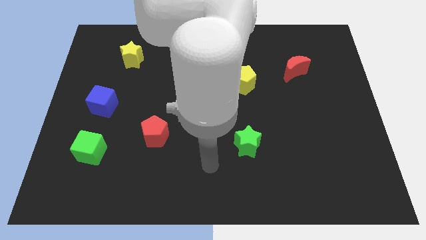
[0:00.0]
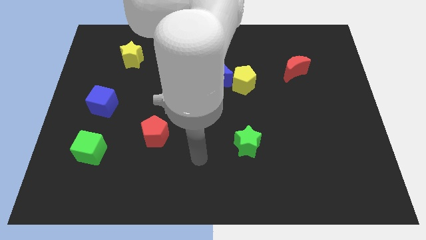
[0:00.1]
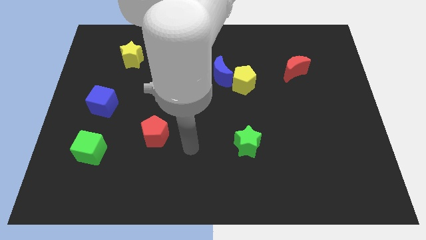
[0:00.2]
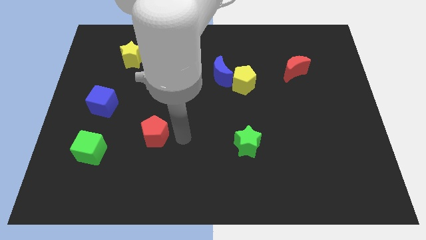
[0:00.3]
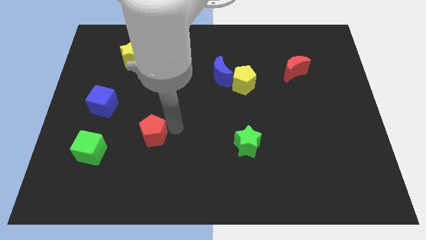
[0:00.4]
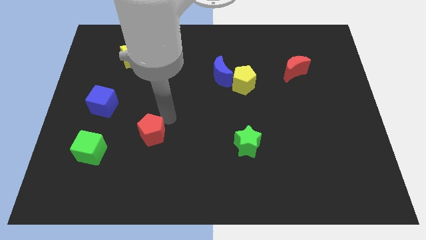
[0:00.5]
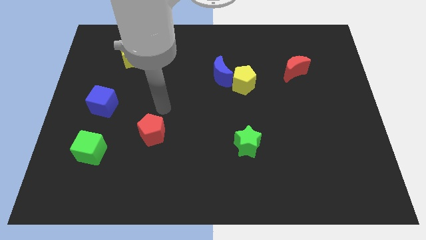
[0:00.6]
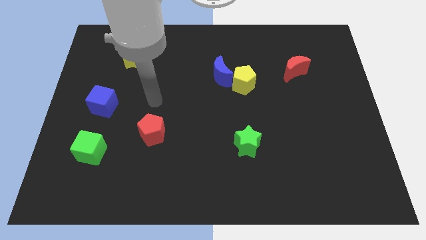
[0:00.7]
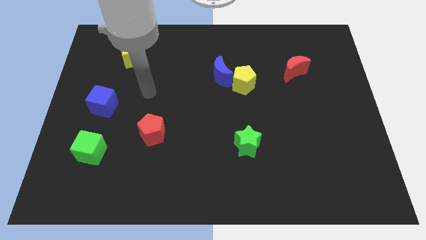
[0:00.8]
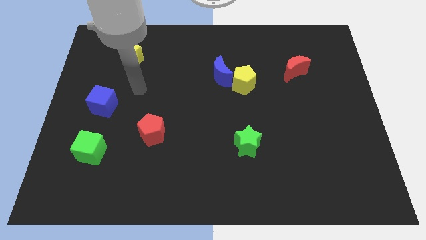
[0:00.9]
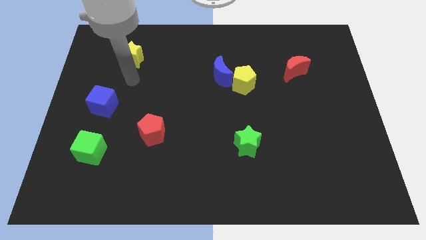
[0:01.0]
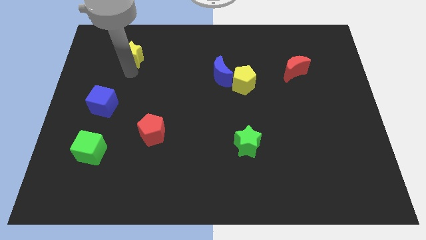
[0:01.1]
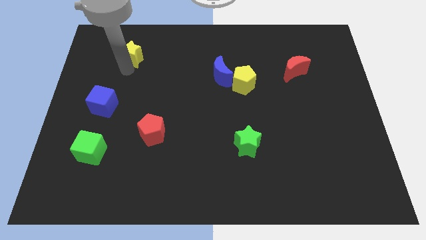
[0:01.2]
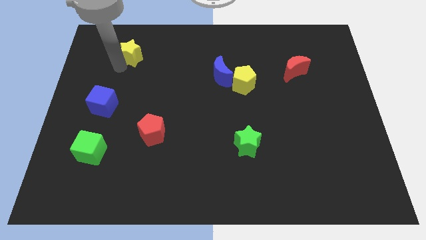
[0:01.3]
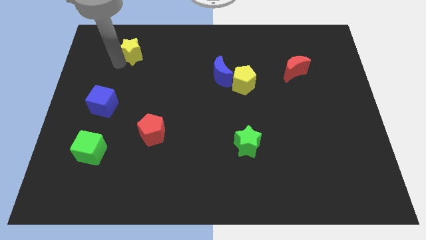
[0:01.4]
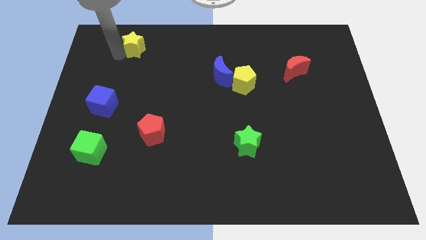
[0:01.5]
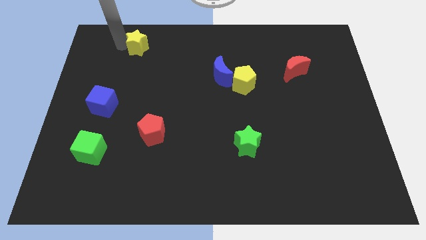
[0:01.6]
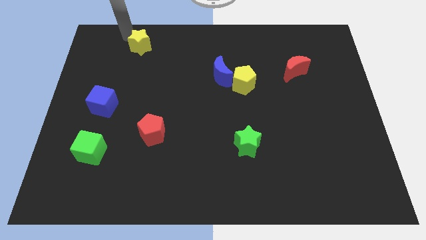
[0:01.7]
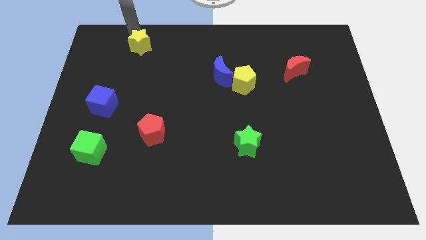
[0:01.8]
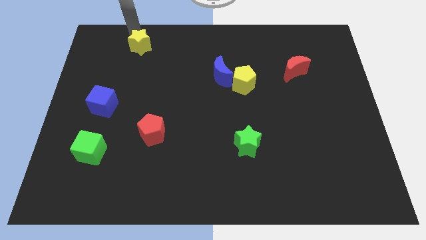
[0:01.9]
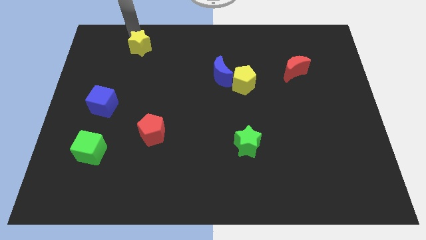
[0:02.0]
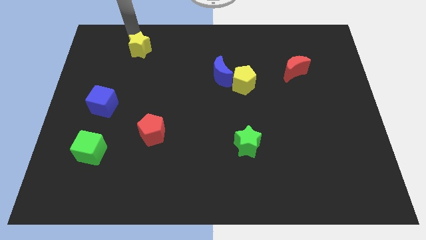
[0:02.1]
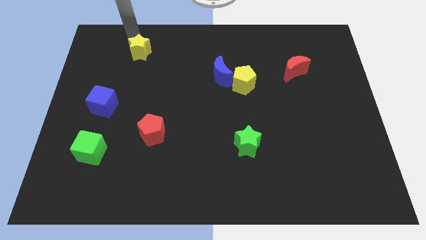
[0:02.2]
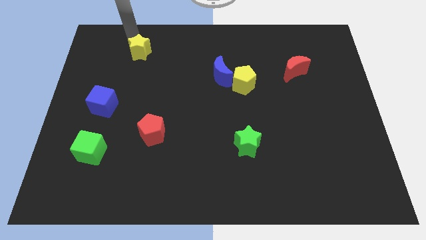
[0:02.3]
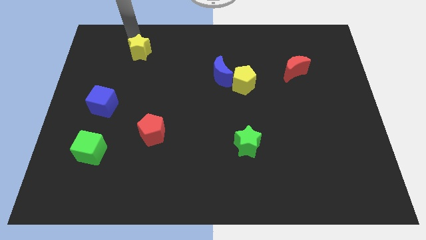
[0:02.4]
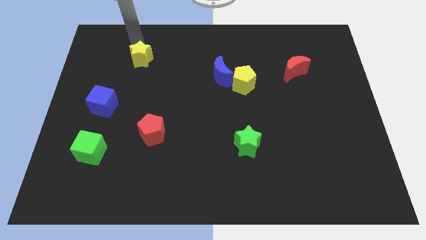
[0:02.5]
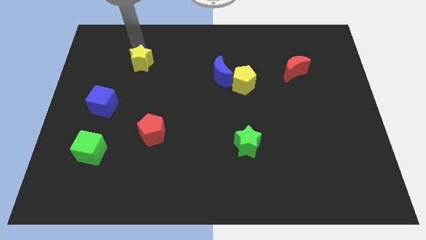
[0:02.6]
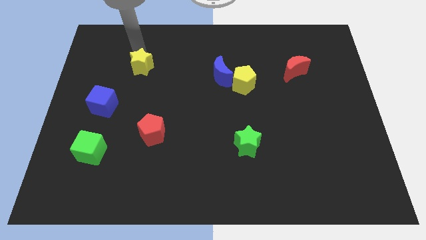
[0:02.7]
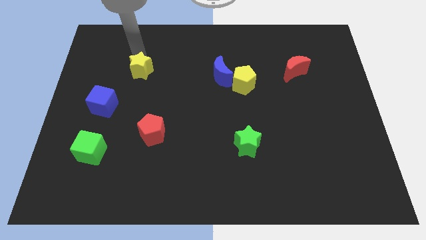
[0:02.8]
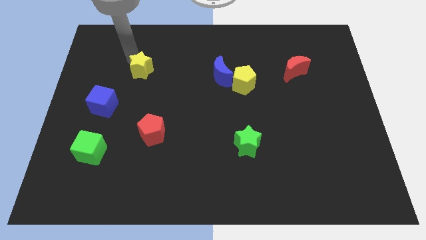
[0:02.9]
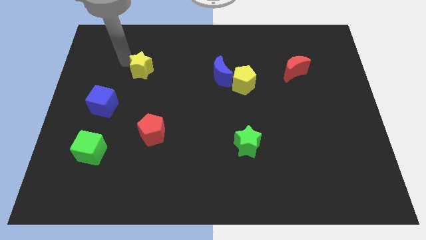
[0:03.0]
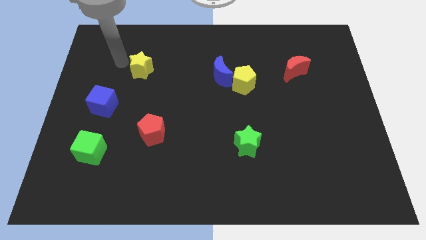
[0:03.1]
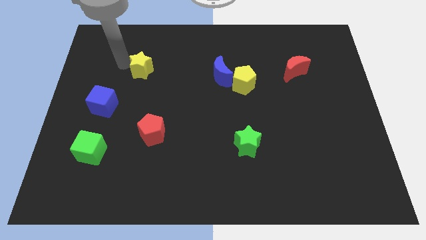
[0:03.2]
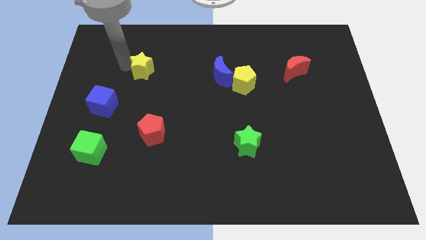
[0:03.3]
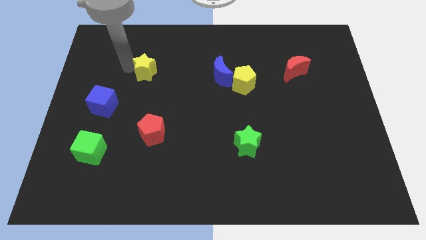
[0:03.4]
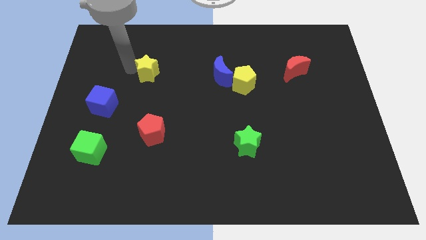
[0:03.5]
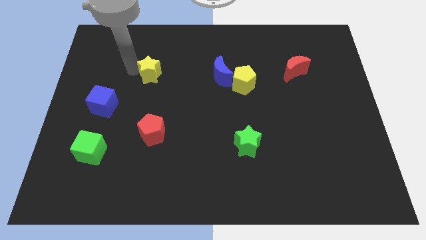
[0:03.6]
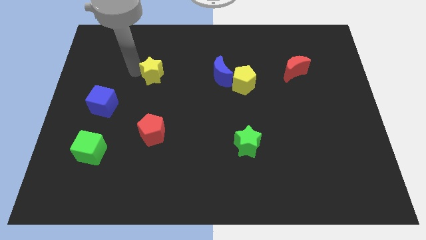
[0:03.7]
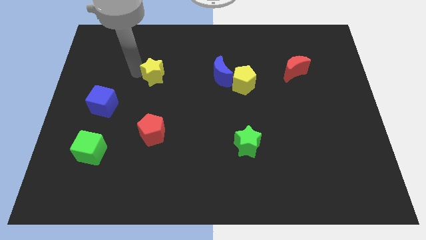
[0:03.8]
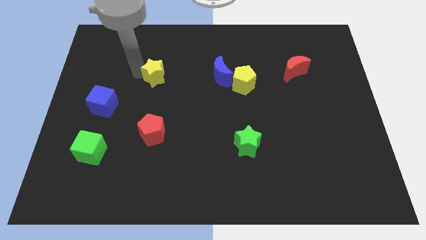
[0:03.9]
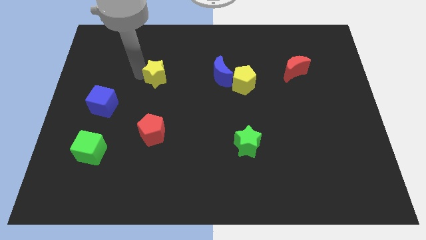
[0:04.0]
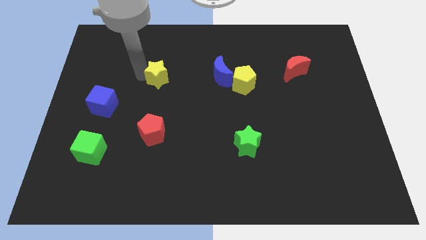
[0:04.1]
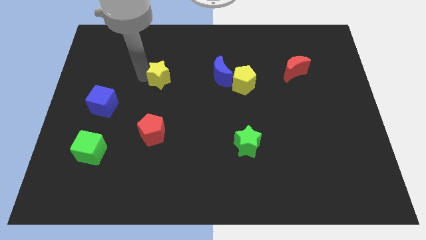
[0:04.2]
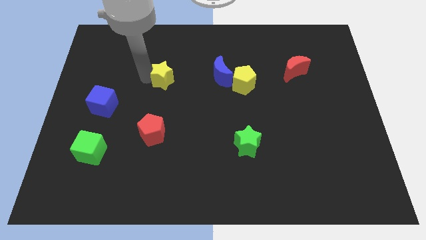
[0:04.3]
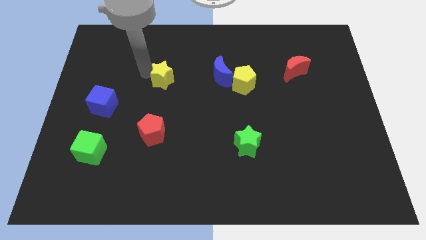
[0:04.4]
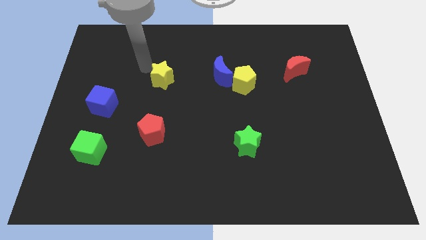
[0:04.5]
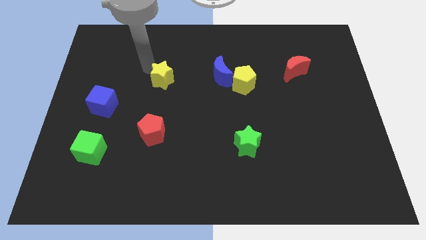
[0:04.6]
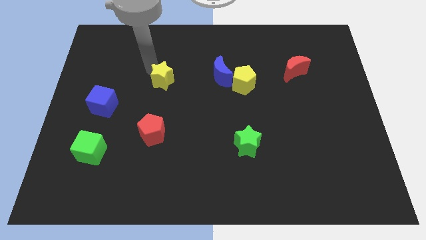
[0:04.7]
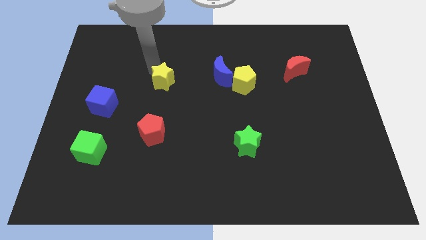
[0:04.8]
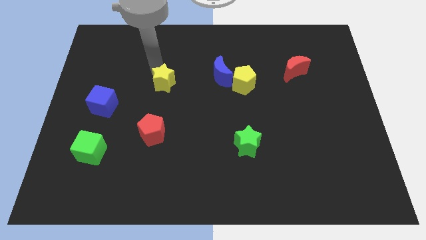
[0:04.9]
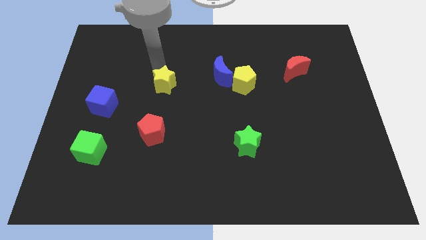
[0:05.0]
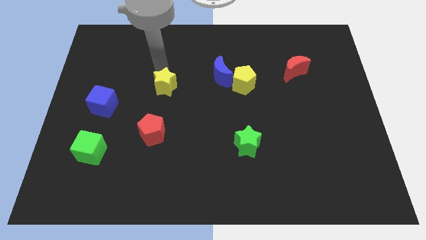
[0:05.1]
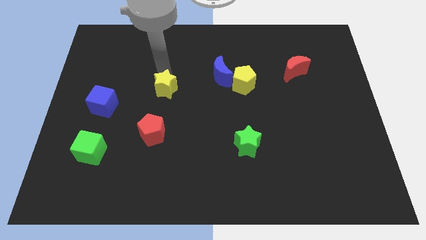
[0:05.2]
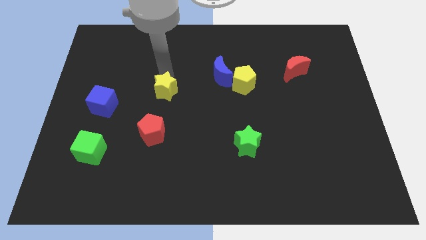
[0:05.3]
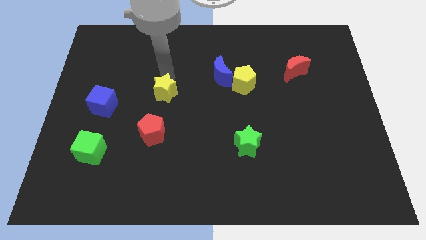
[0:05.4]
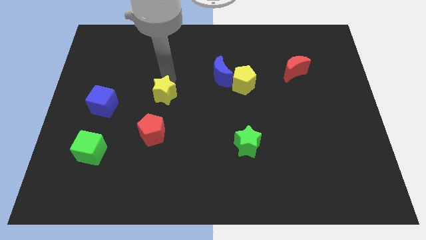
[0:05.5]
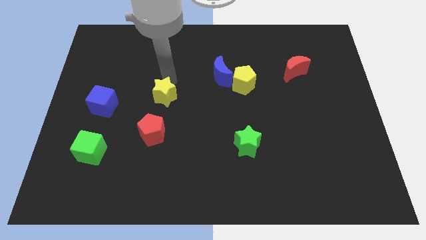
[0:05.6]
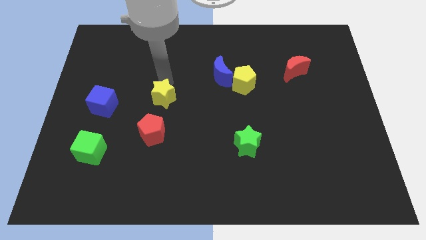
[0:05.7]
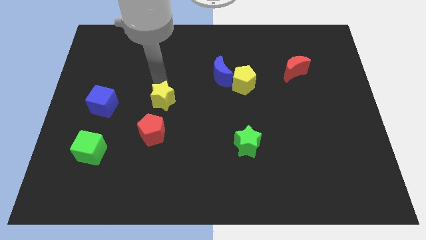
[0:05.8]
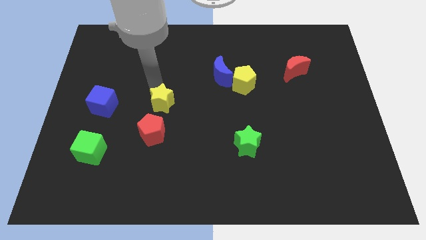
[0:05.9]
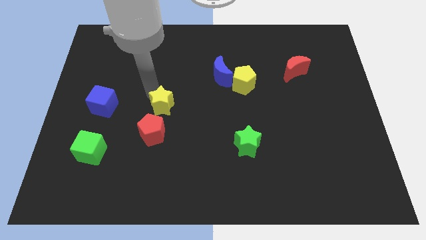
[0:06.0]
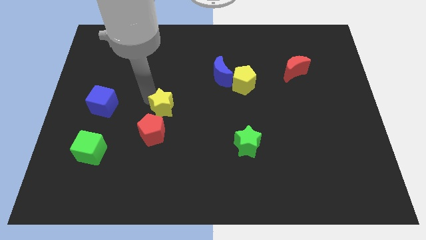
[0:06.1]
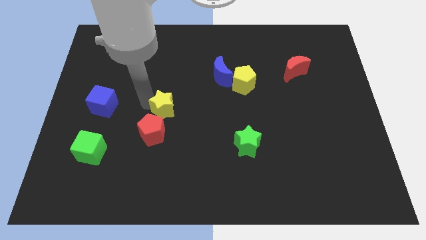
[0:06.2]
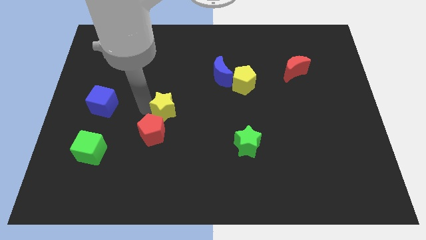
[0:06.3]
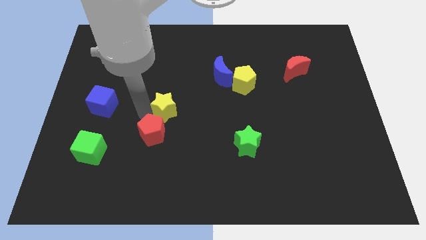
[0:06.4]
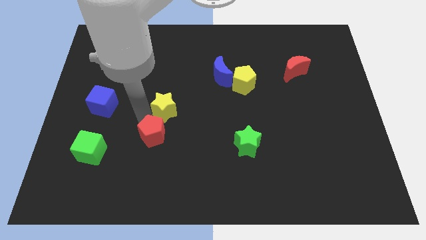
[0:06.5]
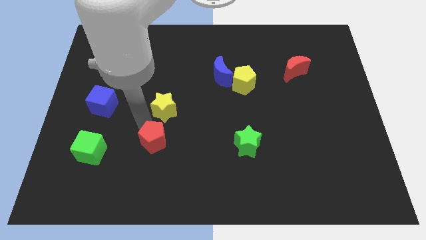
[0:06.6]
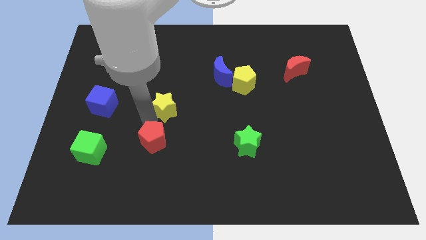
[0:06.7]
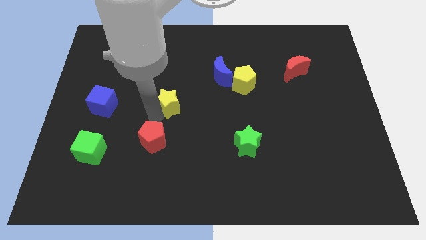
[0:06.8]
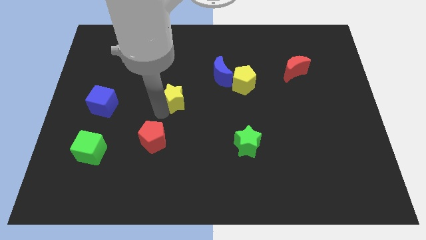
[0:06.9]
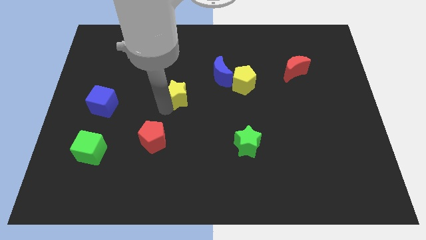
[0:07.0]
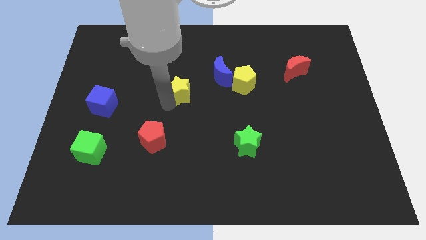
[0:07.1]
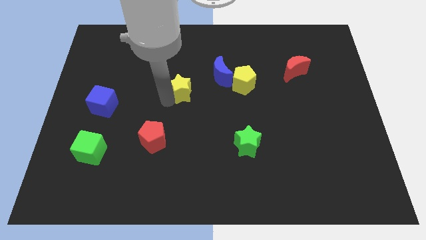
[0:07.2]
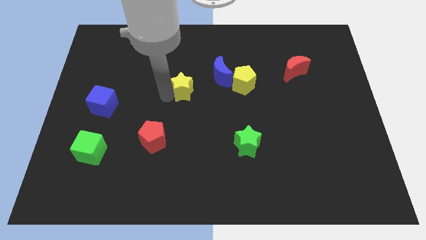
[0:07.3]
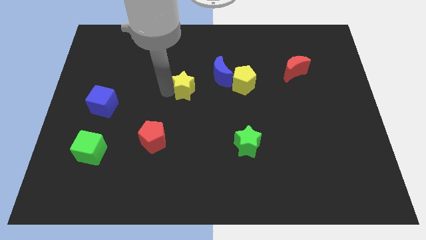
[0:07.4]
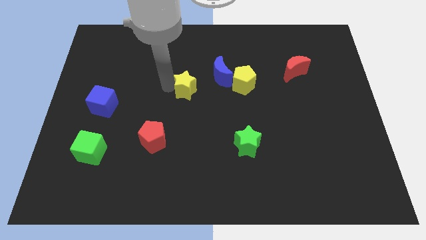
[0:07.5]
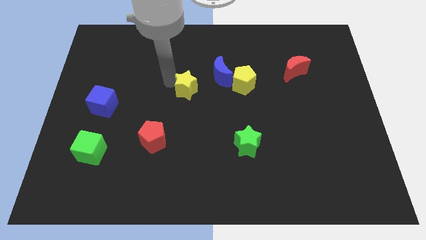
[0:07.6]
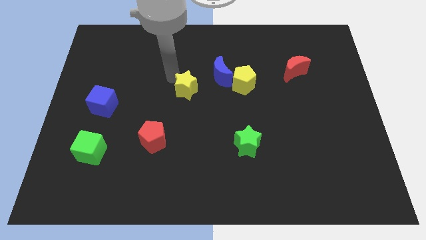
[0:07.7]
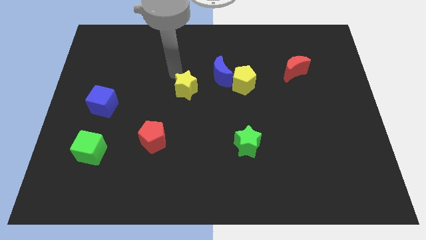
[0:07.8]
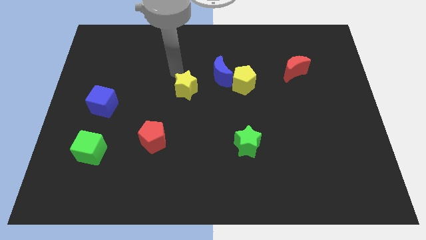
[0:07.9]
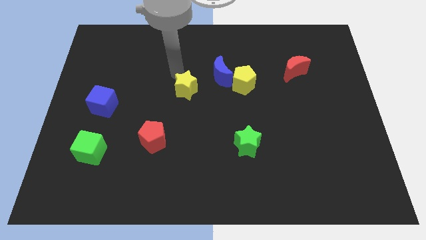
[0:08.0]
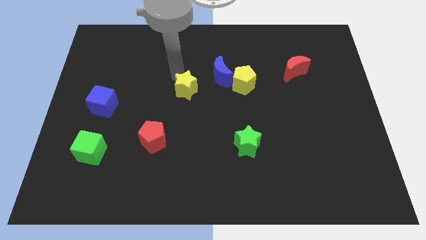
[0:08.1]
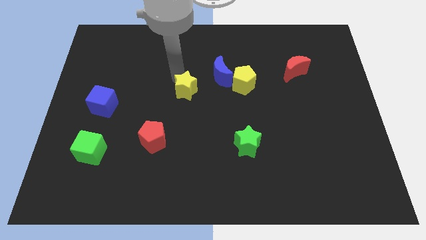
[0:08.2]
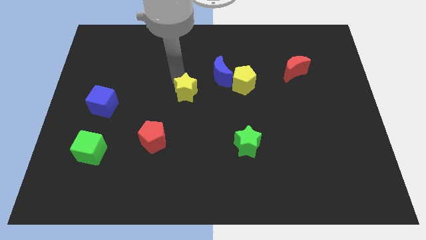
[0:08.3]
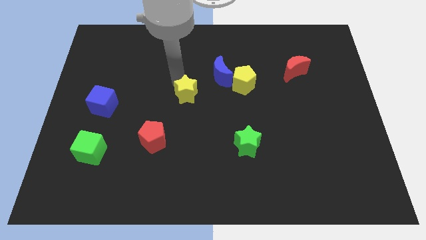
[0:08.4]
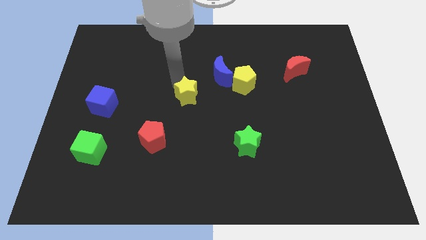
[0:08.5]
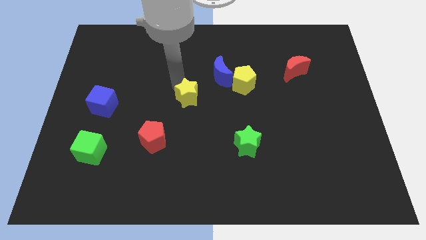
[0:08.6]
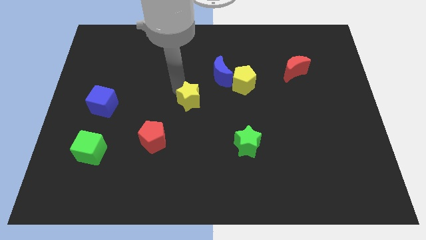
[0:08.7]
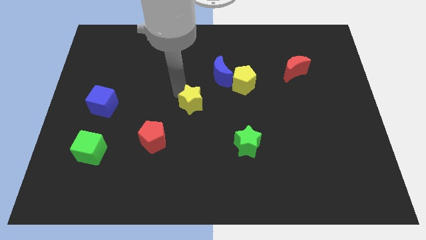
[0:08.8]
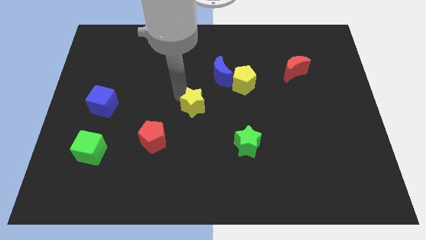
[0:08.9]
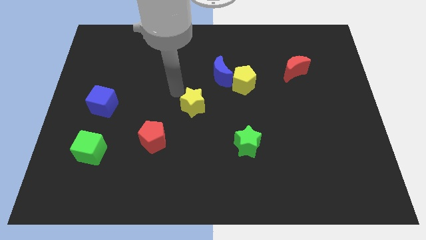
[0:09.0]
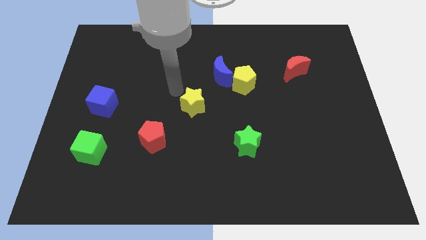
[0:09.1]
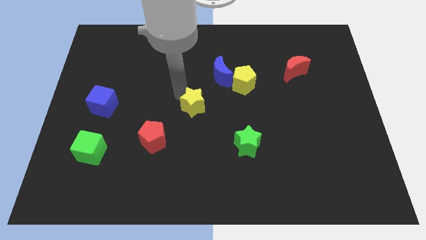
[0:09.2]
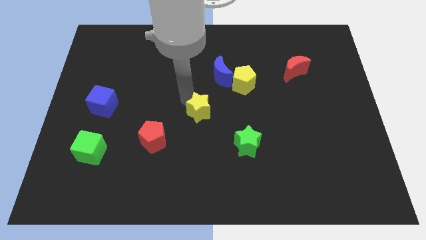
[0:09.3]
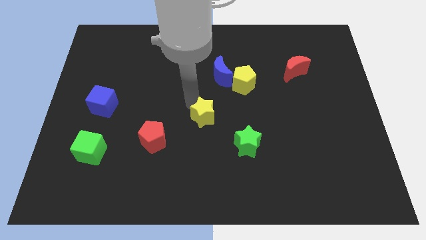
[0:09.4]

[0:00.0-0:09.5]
put the yellow star to the top left side of the green star
